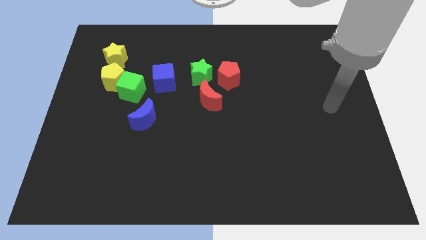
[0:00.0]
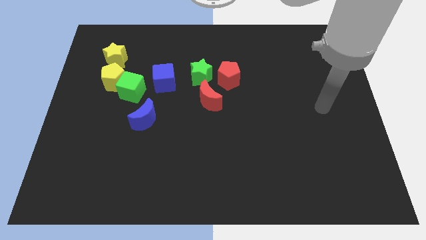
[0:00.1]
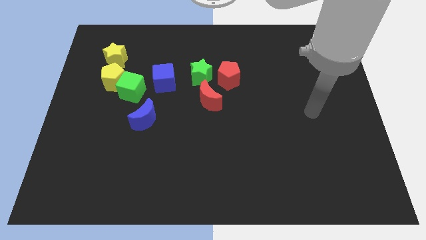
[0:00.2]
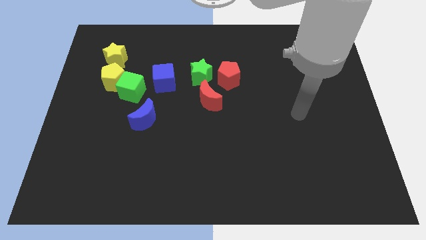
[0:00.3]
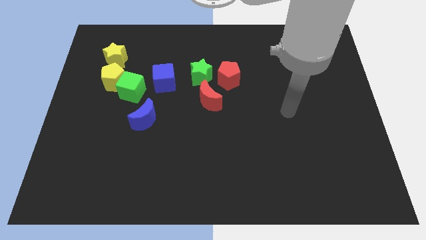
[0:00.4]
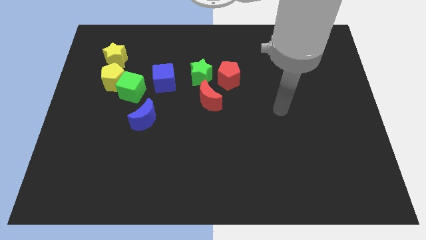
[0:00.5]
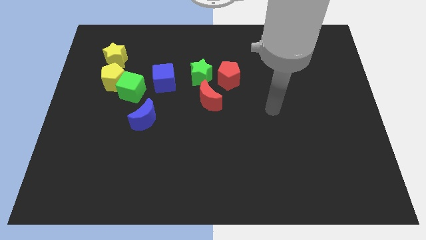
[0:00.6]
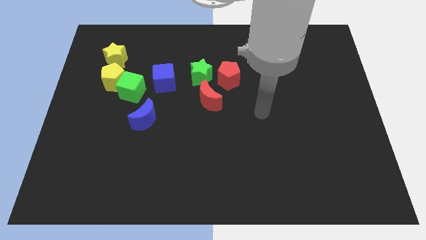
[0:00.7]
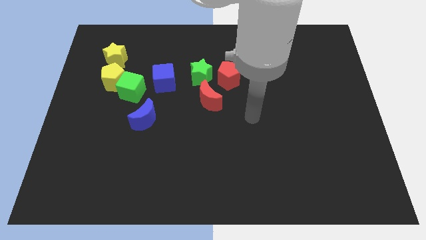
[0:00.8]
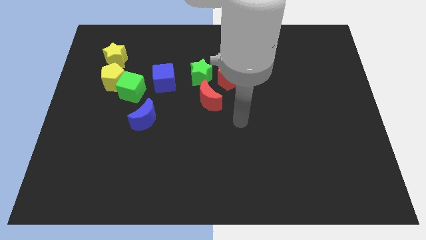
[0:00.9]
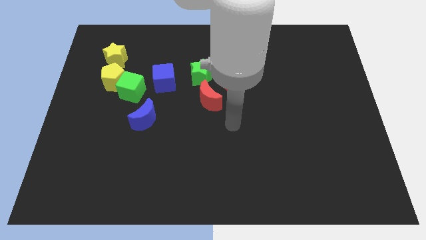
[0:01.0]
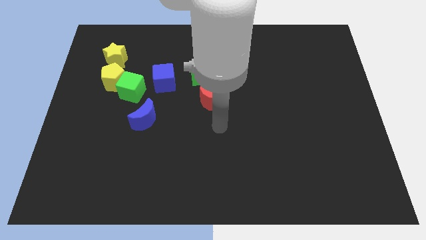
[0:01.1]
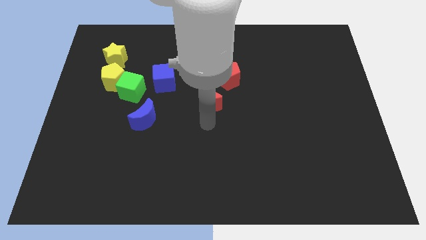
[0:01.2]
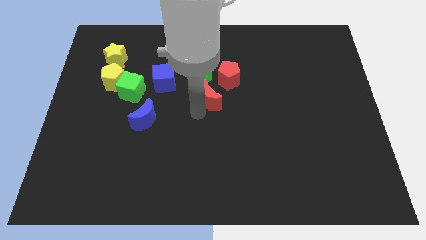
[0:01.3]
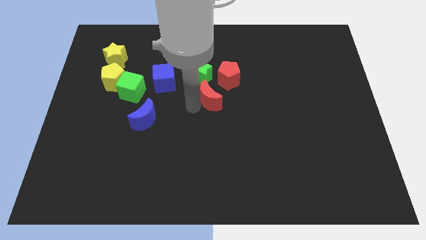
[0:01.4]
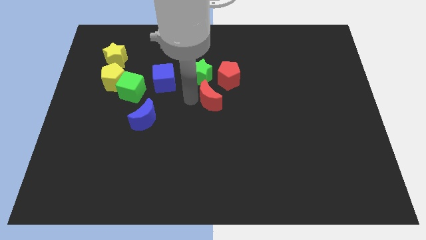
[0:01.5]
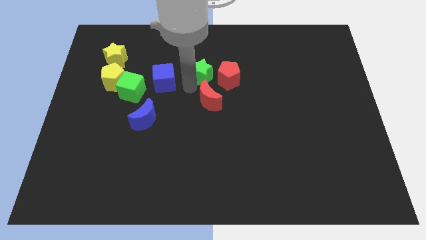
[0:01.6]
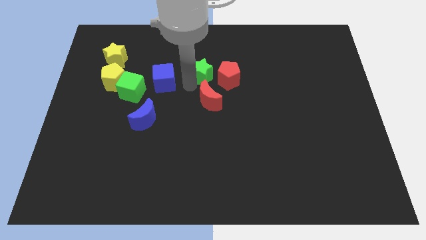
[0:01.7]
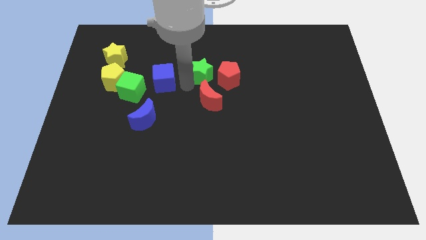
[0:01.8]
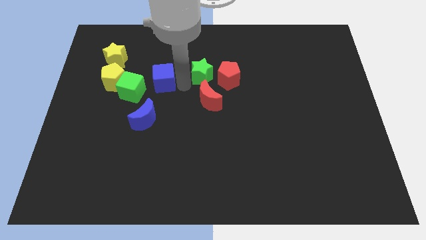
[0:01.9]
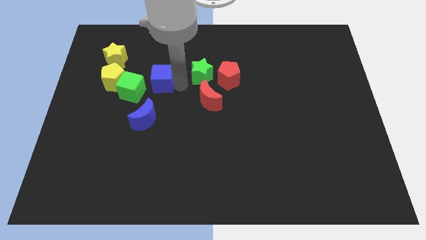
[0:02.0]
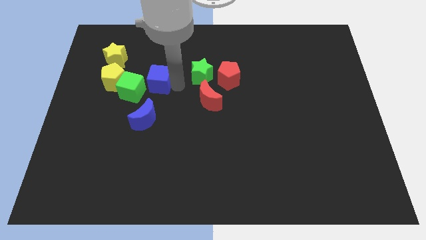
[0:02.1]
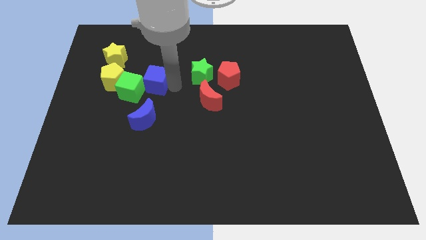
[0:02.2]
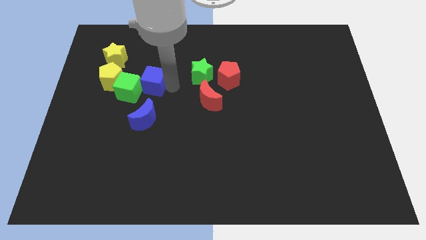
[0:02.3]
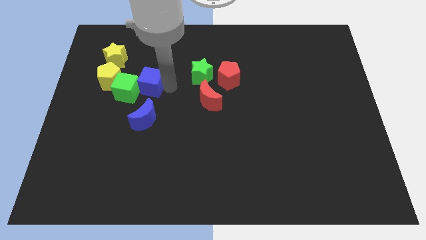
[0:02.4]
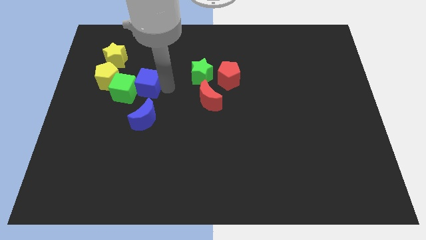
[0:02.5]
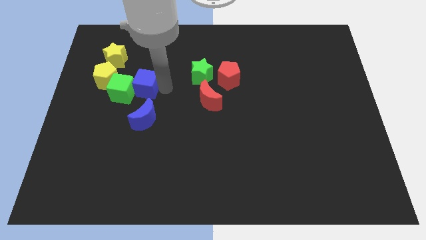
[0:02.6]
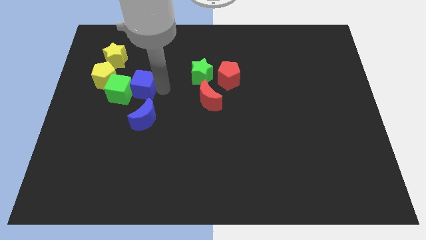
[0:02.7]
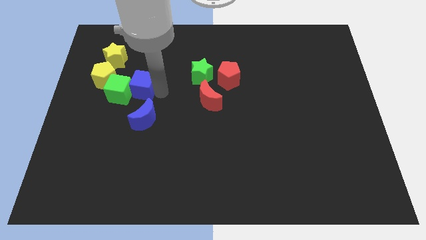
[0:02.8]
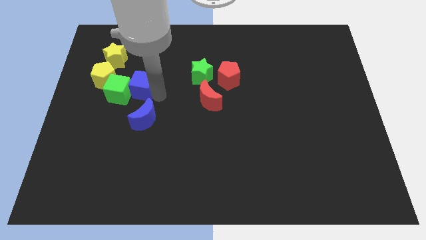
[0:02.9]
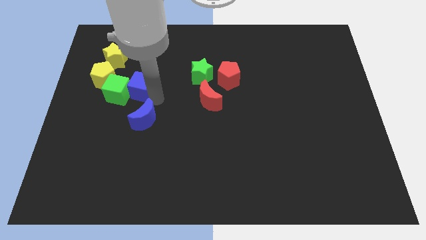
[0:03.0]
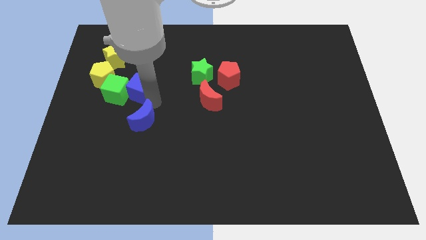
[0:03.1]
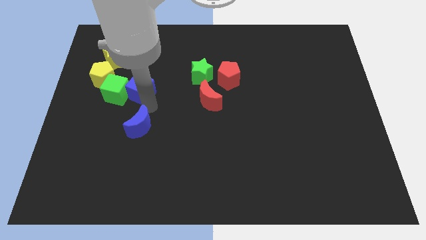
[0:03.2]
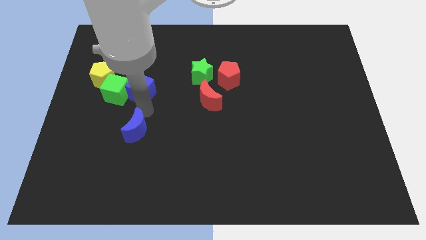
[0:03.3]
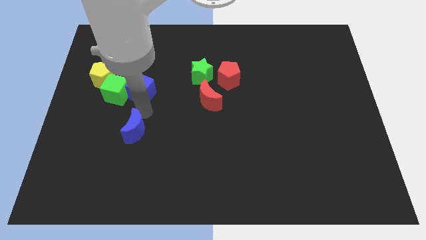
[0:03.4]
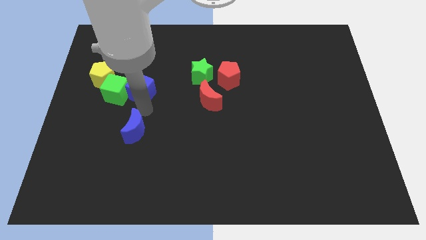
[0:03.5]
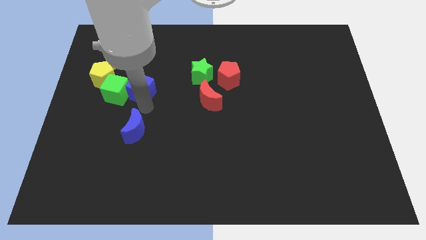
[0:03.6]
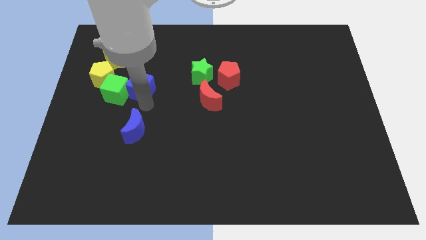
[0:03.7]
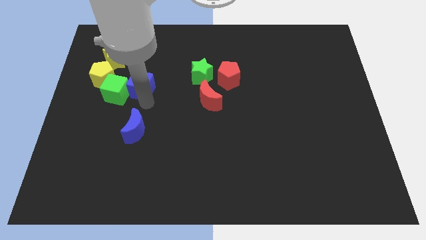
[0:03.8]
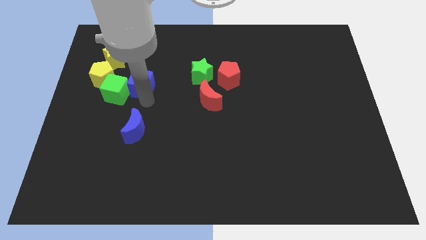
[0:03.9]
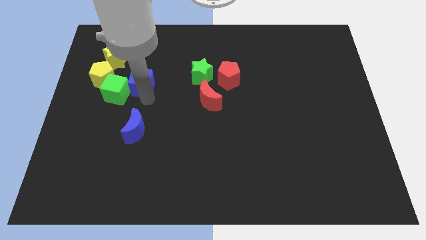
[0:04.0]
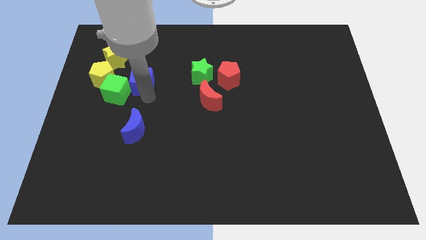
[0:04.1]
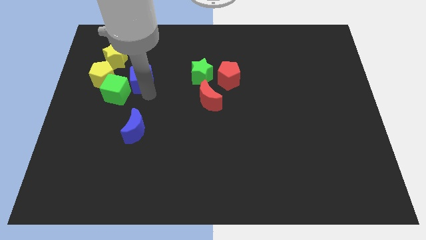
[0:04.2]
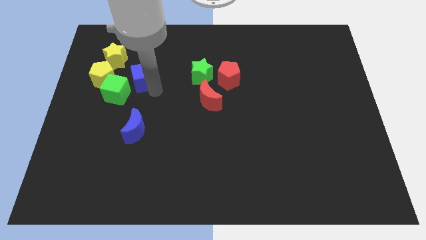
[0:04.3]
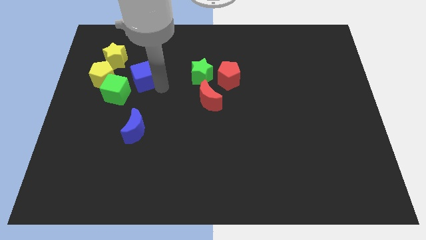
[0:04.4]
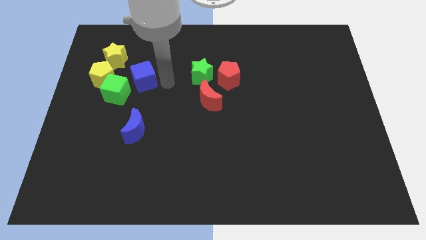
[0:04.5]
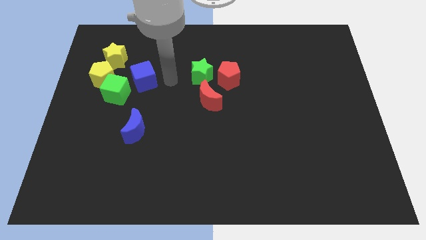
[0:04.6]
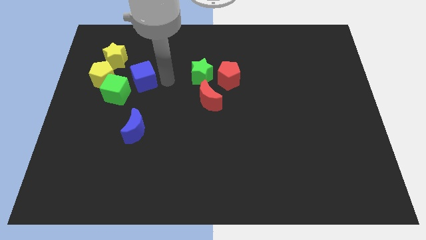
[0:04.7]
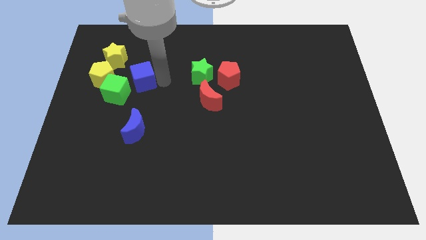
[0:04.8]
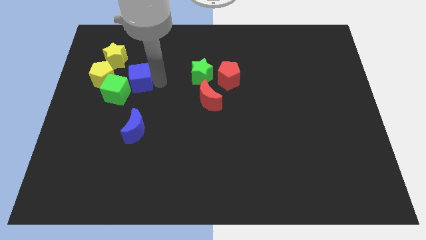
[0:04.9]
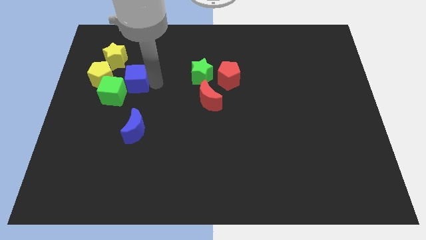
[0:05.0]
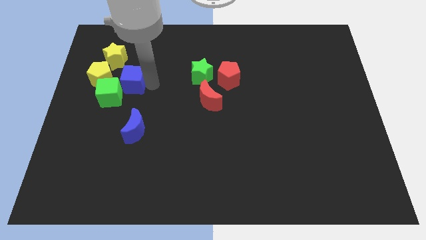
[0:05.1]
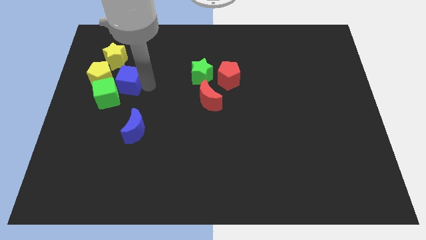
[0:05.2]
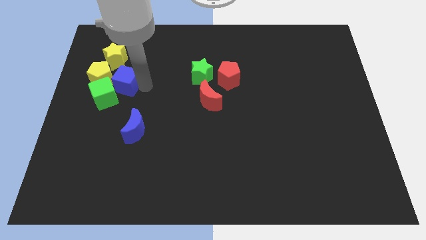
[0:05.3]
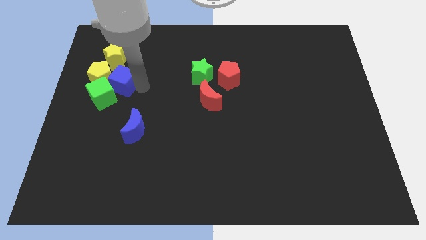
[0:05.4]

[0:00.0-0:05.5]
put the blue cube towards the yellow pentagon

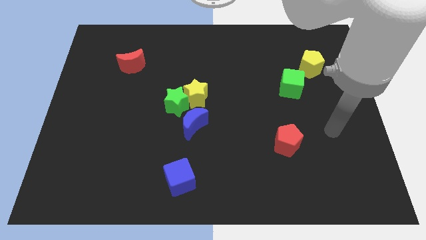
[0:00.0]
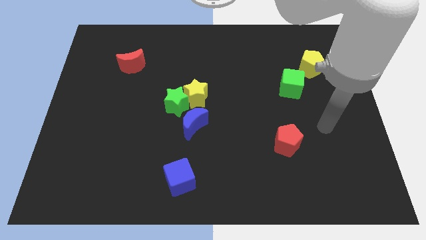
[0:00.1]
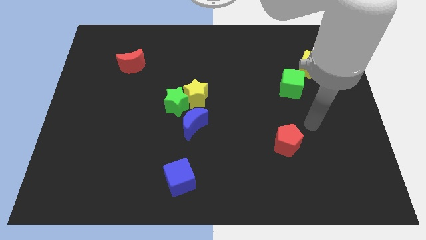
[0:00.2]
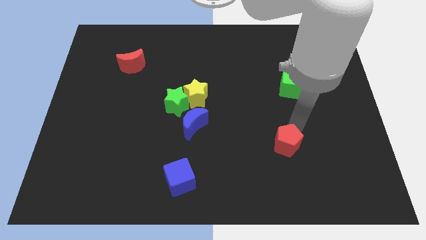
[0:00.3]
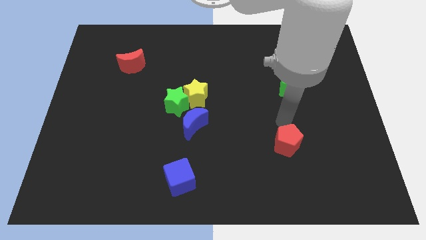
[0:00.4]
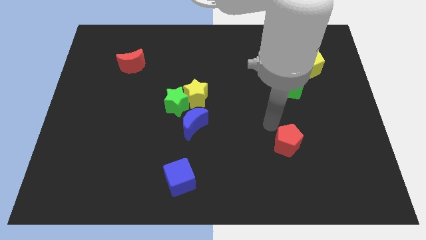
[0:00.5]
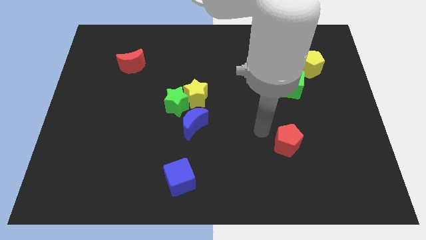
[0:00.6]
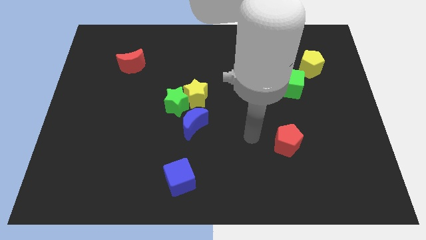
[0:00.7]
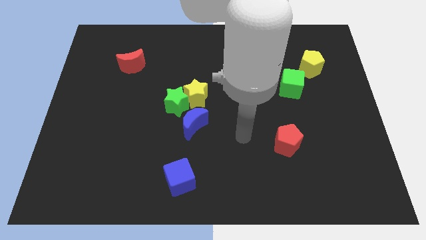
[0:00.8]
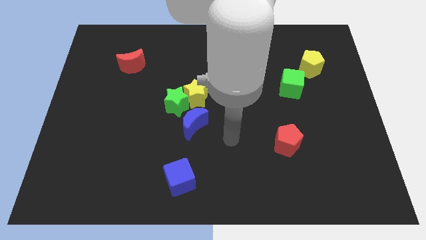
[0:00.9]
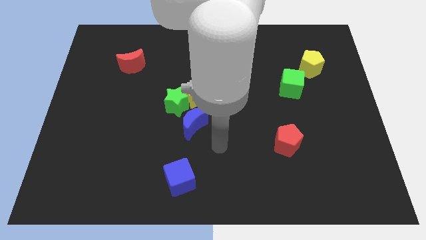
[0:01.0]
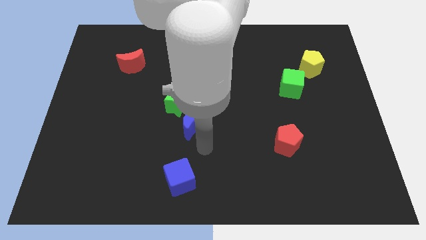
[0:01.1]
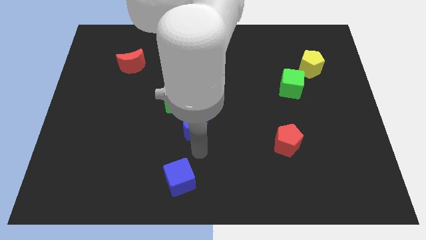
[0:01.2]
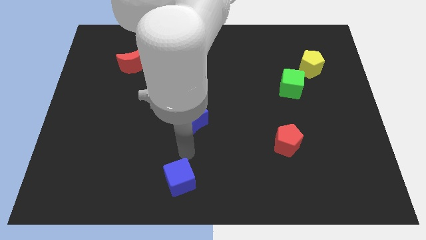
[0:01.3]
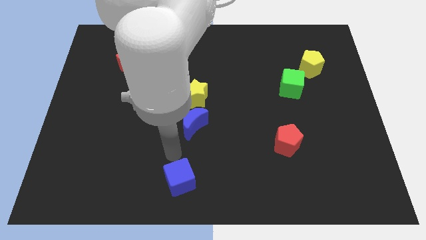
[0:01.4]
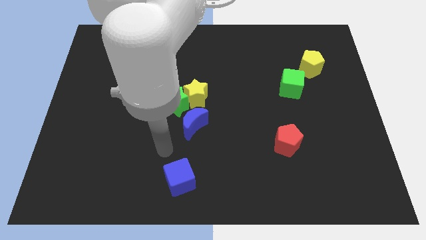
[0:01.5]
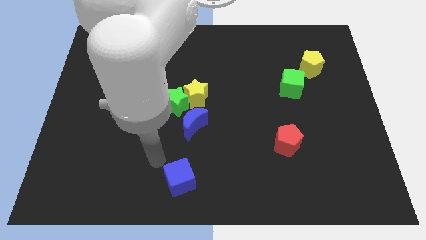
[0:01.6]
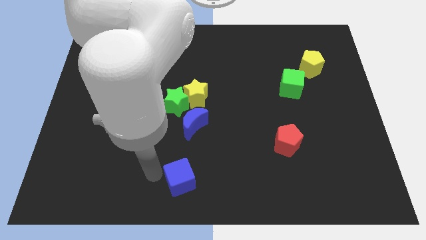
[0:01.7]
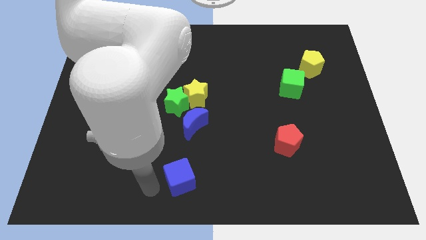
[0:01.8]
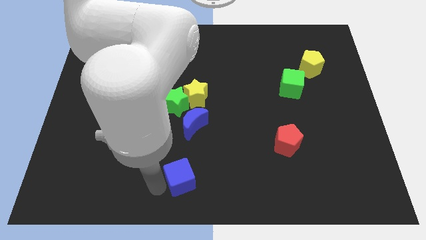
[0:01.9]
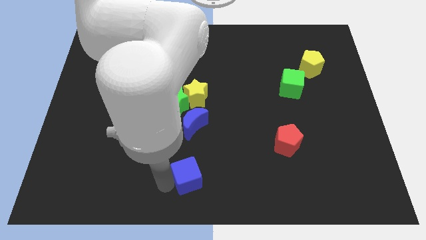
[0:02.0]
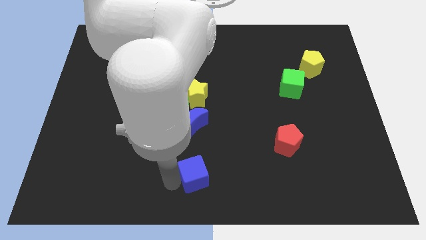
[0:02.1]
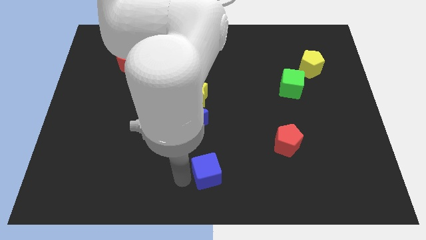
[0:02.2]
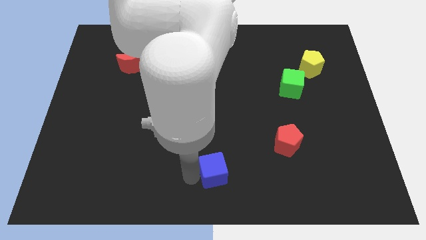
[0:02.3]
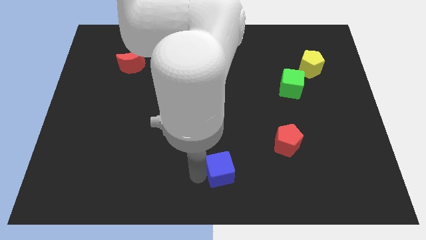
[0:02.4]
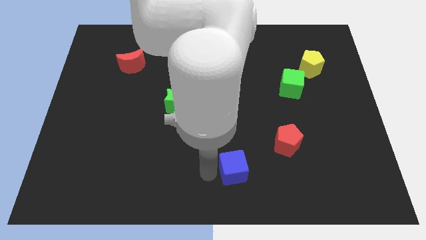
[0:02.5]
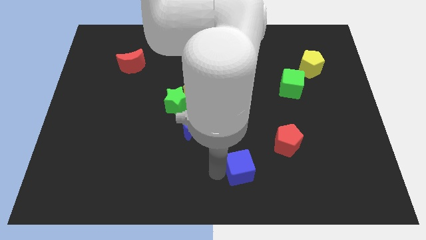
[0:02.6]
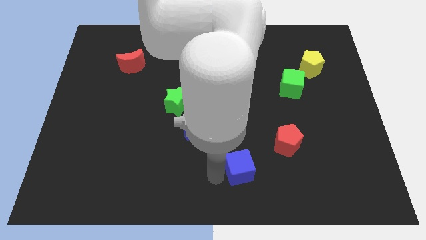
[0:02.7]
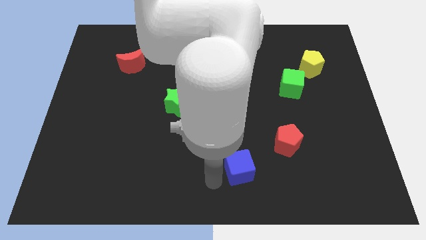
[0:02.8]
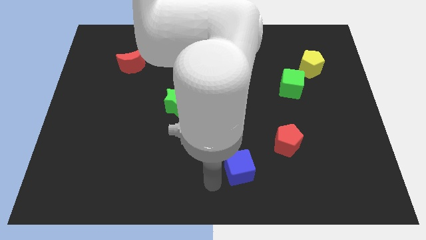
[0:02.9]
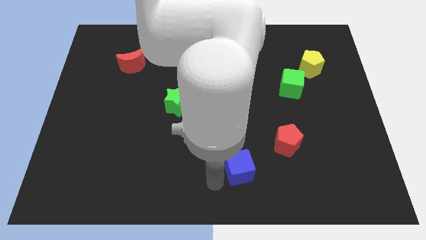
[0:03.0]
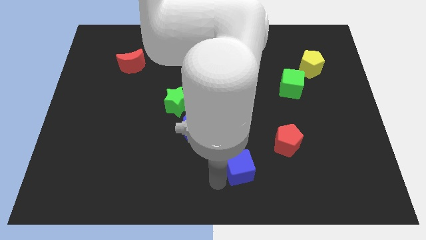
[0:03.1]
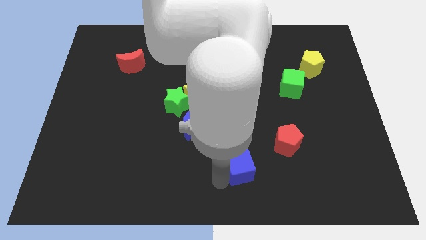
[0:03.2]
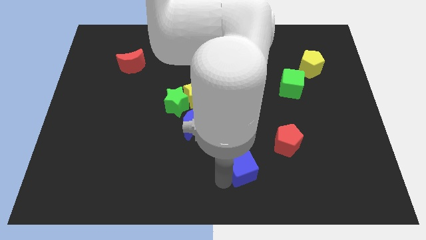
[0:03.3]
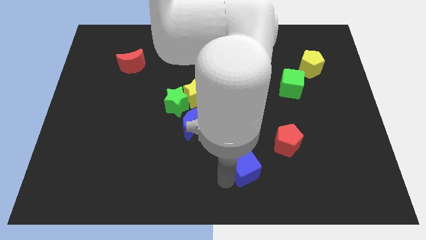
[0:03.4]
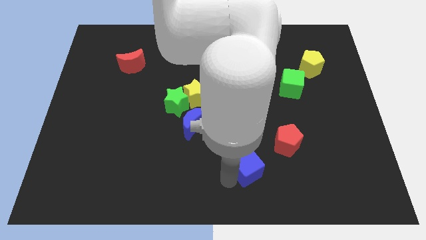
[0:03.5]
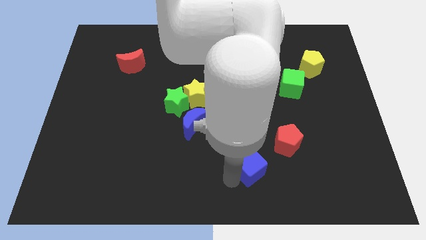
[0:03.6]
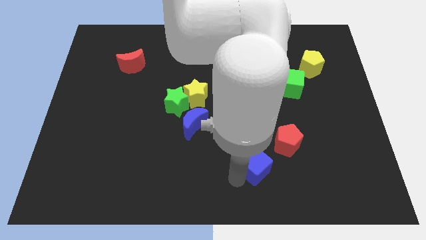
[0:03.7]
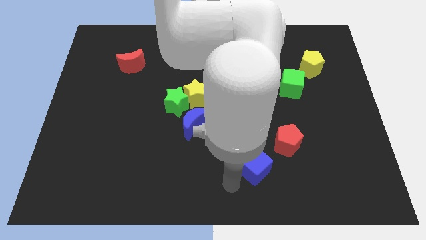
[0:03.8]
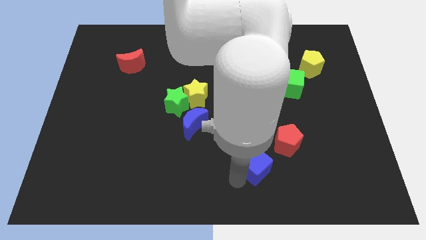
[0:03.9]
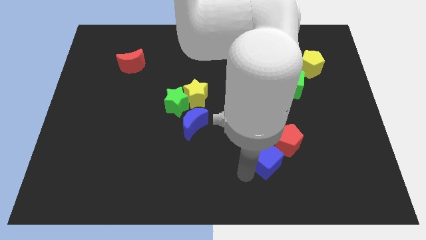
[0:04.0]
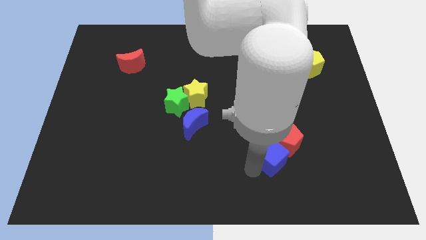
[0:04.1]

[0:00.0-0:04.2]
slide the blue cube next to the red pentagon
